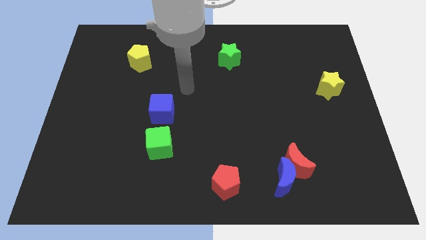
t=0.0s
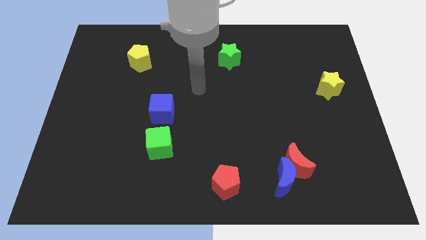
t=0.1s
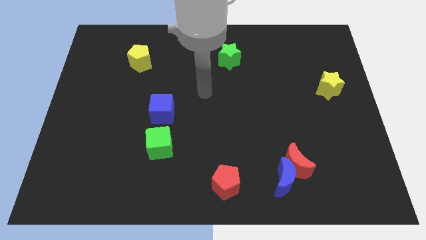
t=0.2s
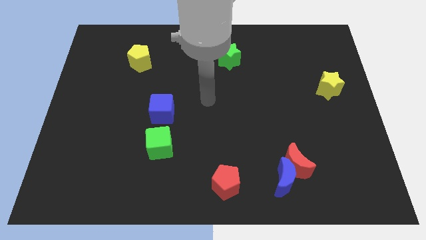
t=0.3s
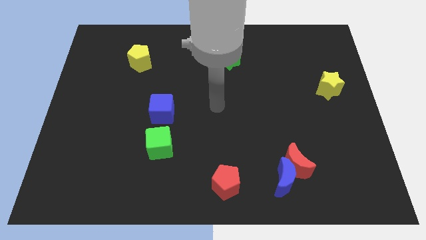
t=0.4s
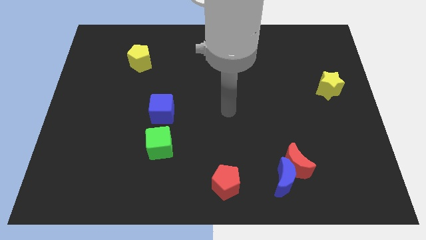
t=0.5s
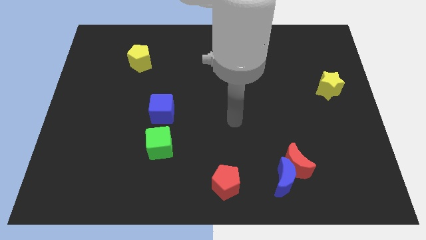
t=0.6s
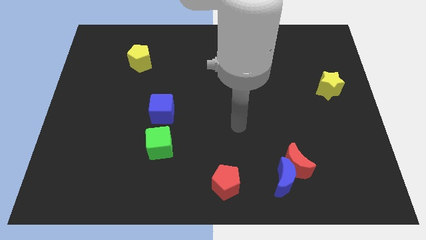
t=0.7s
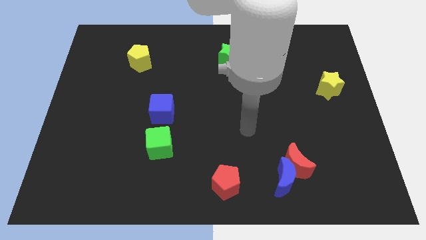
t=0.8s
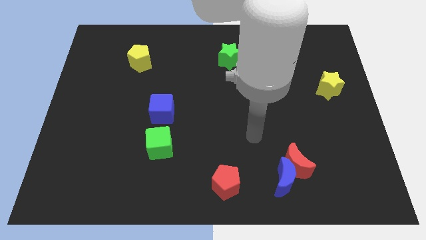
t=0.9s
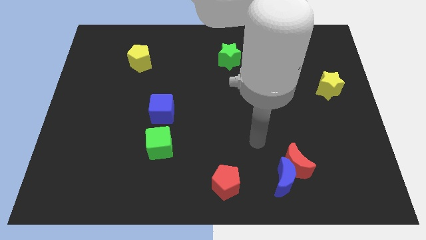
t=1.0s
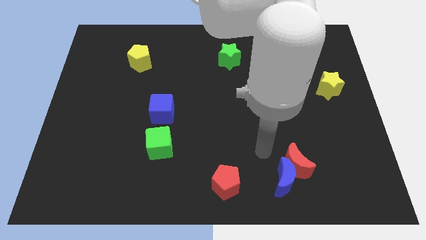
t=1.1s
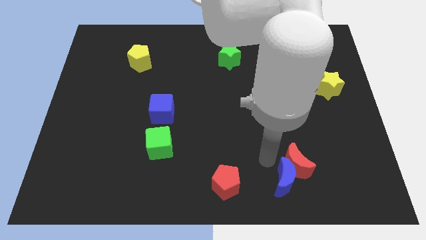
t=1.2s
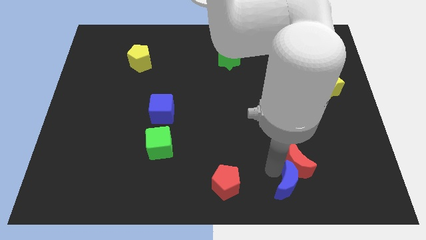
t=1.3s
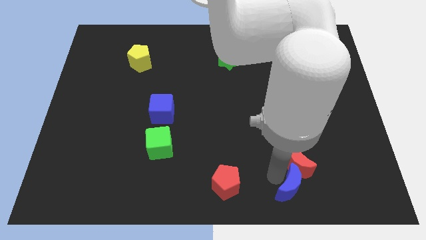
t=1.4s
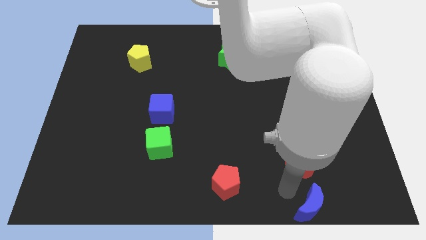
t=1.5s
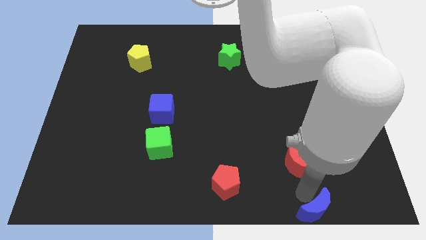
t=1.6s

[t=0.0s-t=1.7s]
pull the red moon apart from the blue moon

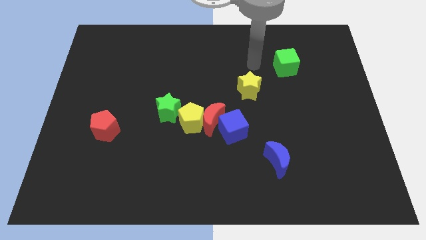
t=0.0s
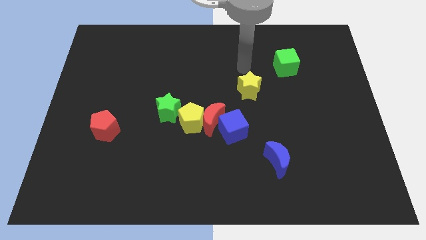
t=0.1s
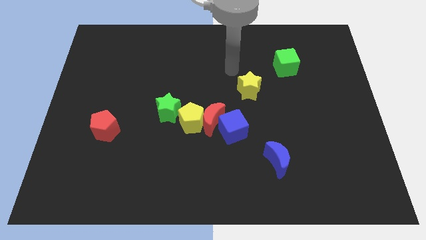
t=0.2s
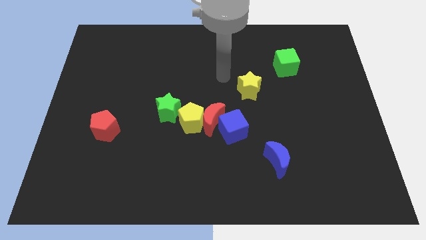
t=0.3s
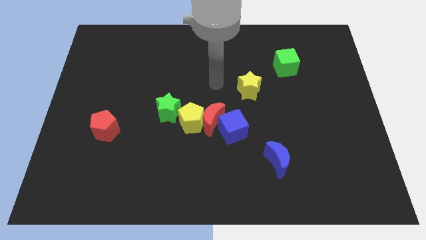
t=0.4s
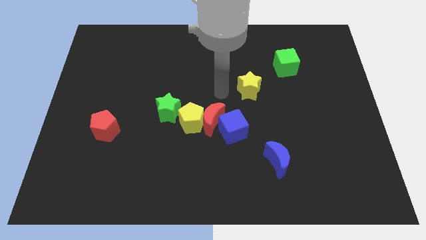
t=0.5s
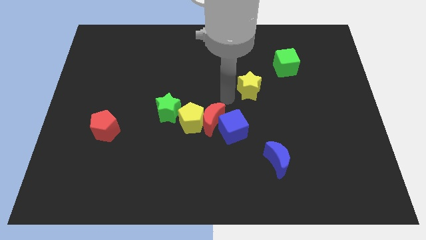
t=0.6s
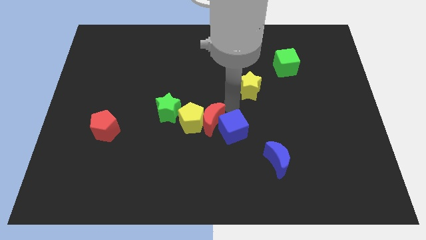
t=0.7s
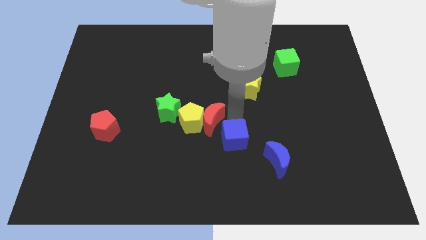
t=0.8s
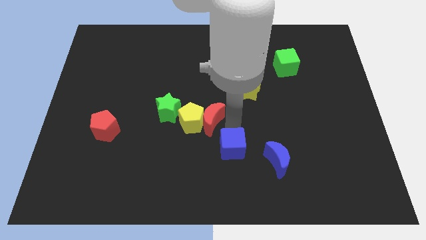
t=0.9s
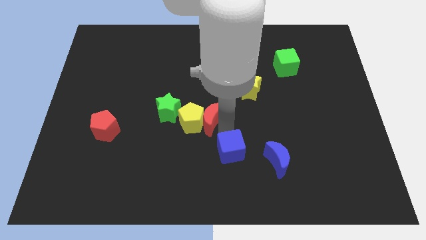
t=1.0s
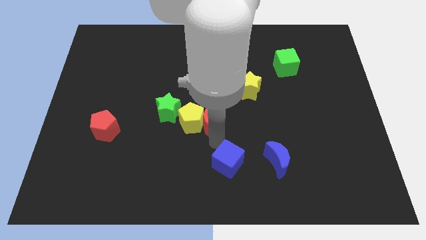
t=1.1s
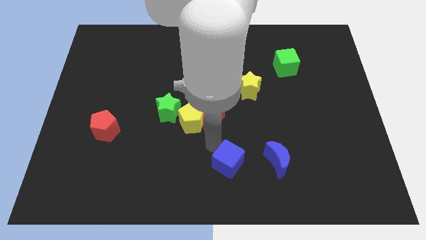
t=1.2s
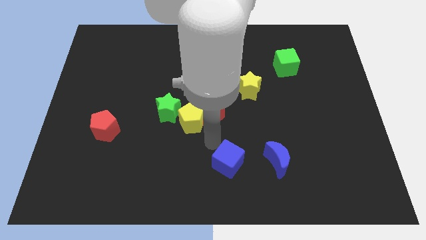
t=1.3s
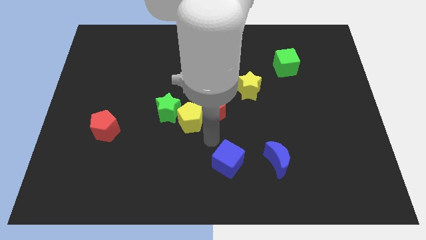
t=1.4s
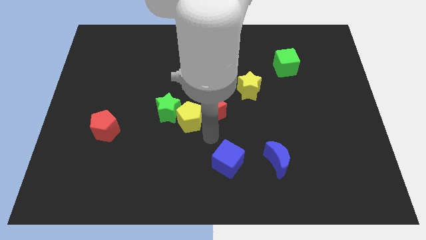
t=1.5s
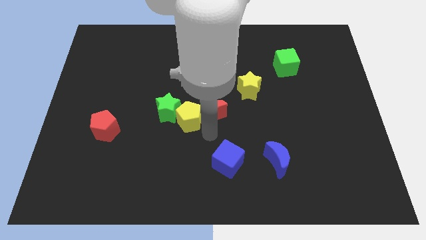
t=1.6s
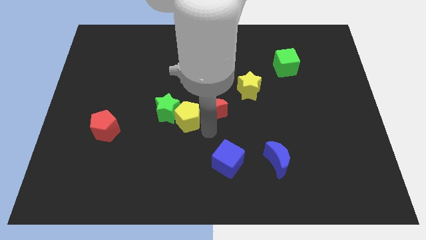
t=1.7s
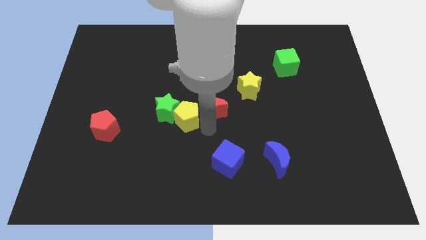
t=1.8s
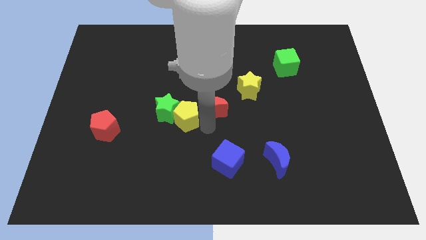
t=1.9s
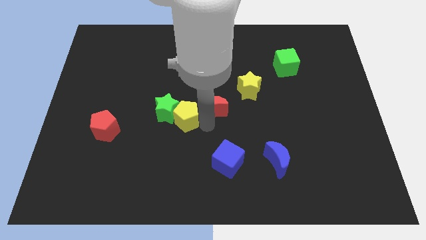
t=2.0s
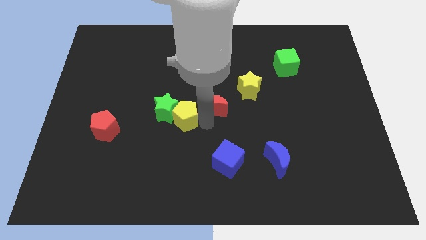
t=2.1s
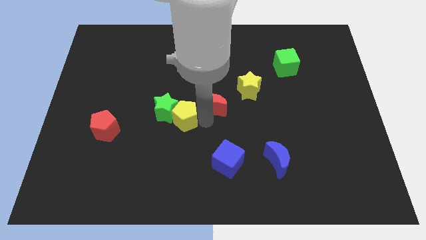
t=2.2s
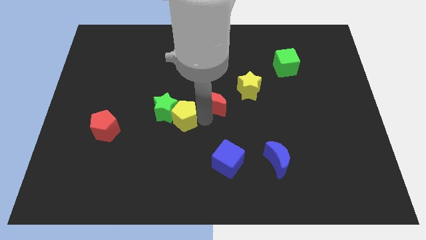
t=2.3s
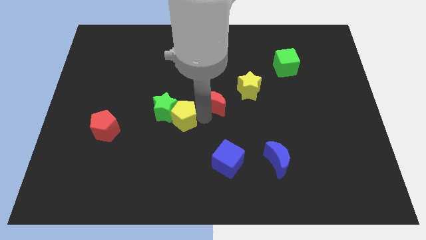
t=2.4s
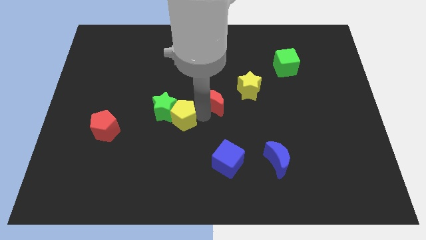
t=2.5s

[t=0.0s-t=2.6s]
separate the red moon from the yellow pentagon and blue cube

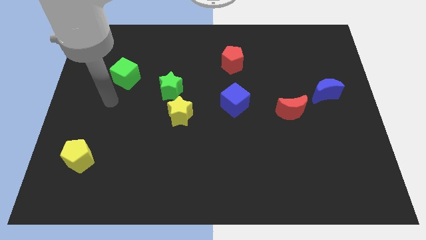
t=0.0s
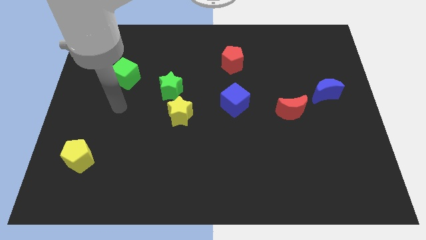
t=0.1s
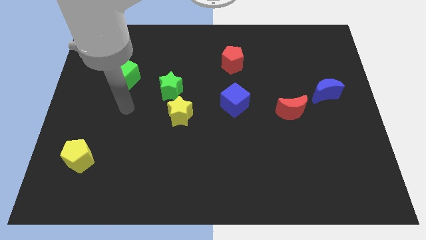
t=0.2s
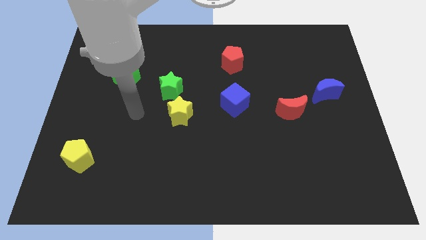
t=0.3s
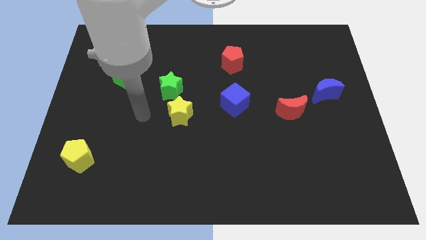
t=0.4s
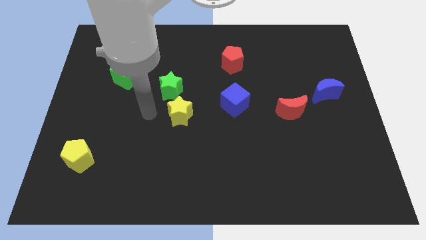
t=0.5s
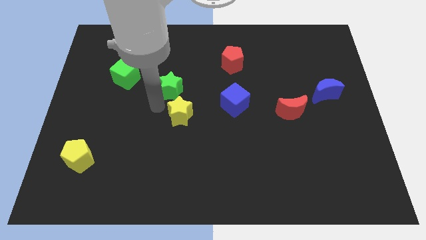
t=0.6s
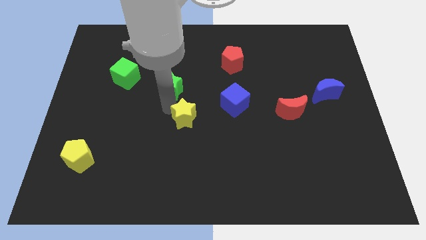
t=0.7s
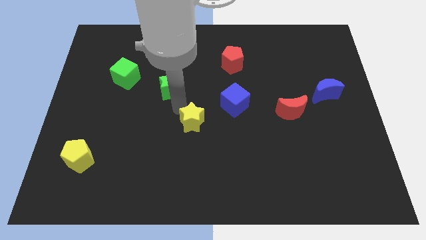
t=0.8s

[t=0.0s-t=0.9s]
pull the green star apart from the yellow star

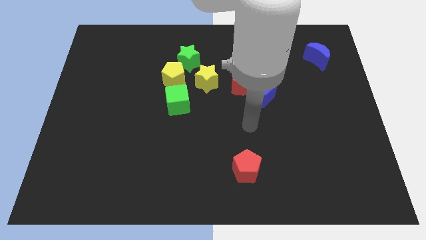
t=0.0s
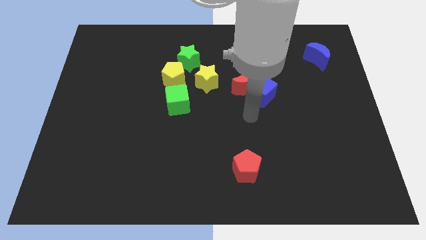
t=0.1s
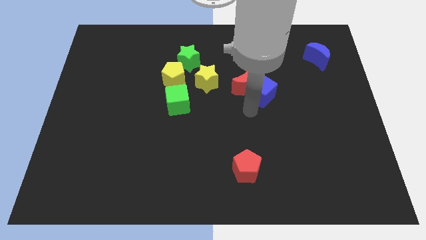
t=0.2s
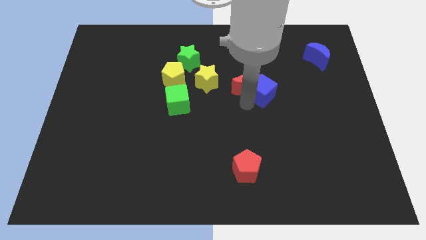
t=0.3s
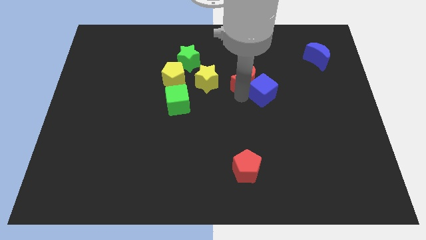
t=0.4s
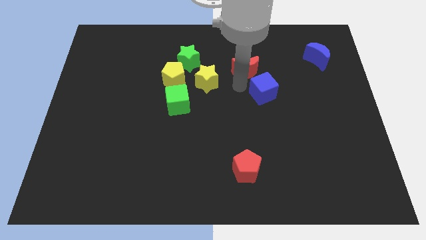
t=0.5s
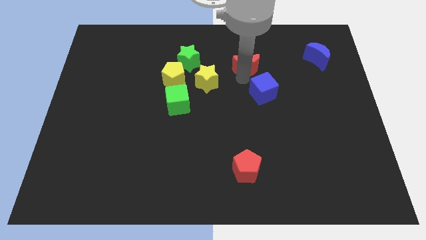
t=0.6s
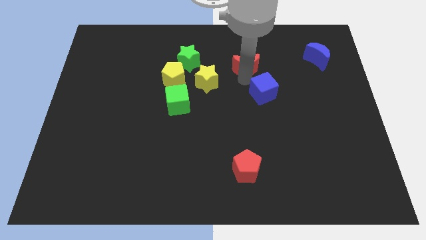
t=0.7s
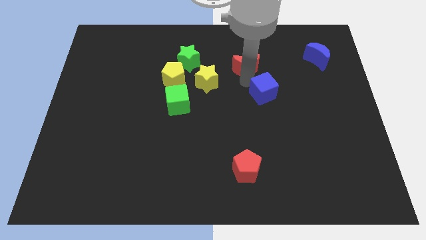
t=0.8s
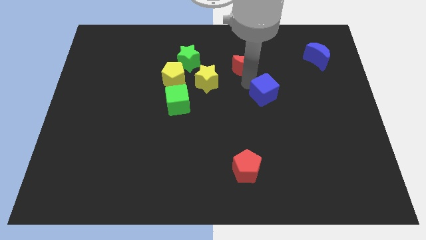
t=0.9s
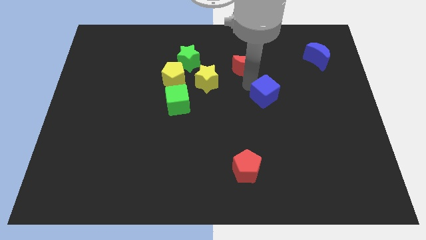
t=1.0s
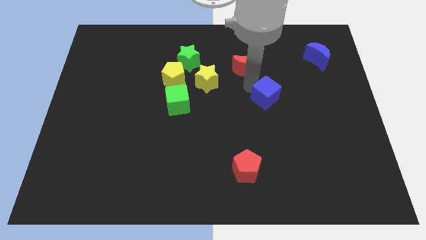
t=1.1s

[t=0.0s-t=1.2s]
move the blue cube away from the red moon

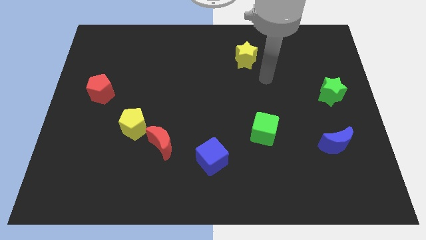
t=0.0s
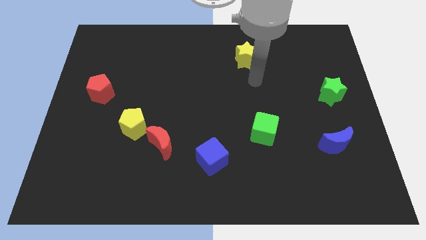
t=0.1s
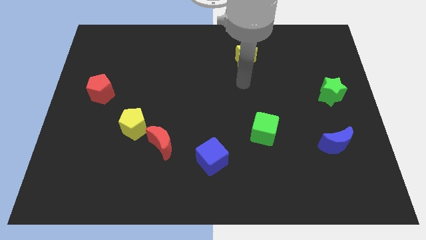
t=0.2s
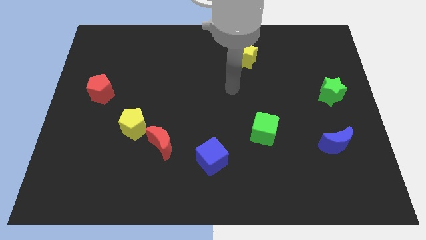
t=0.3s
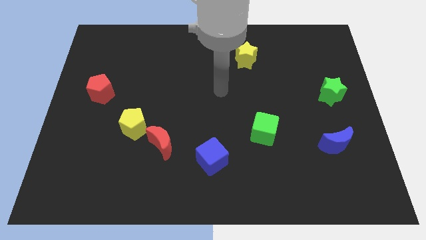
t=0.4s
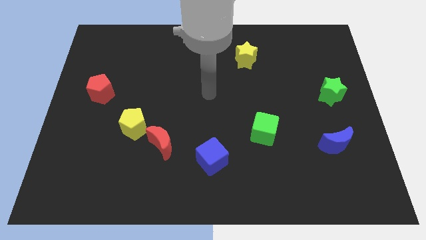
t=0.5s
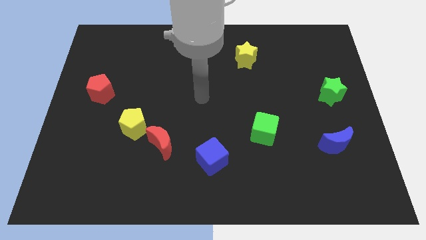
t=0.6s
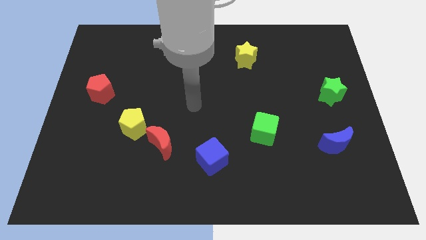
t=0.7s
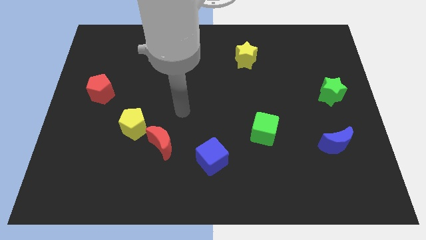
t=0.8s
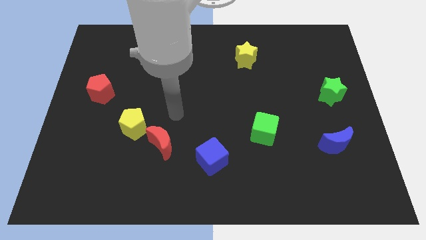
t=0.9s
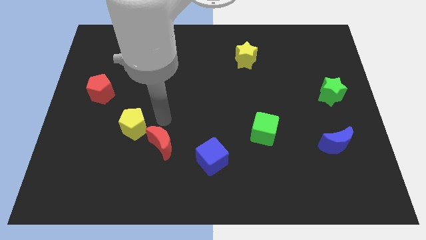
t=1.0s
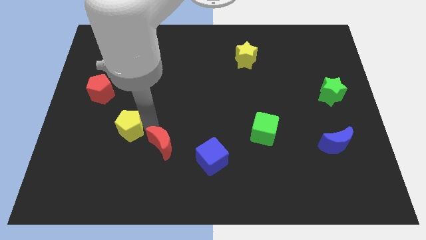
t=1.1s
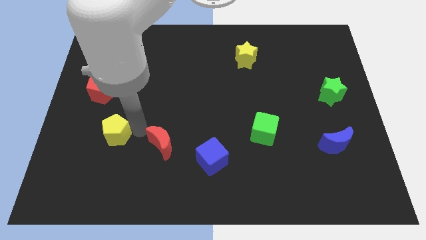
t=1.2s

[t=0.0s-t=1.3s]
move the red moon away from the yellow pentagon

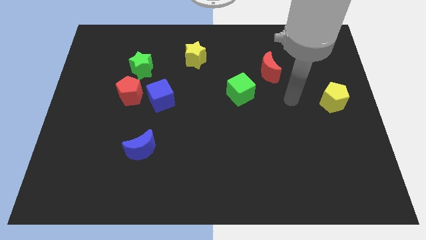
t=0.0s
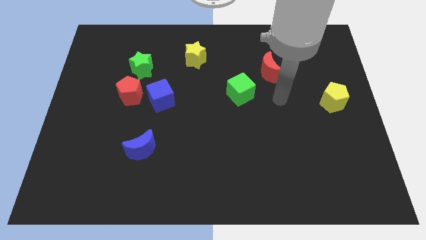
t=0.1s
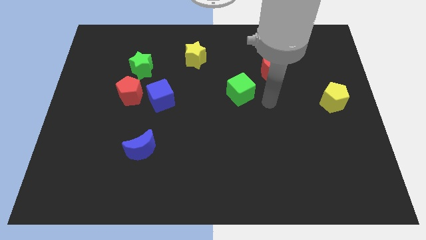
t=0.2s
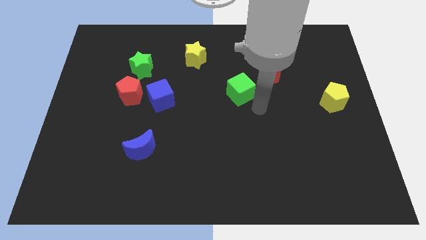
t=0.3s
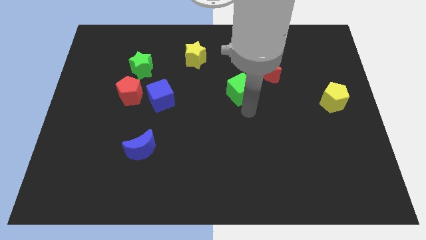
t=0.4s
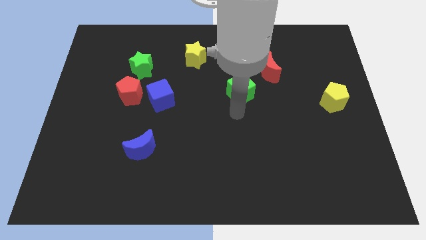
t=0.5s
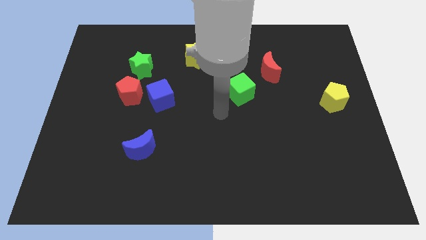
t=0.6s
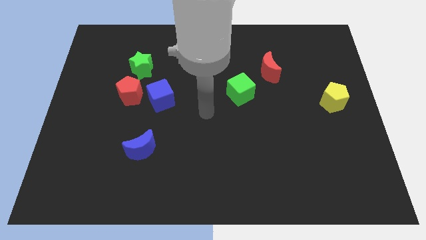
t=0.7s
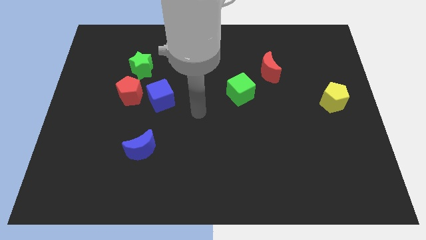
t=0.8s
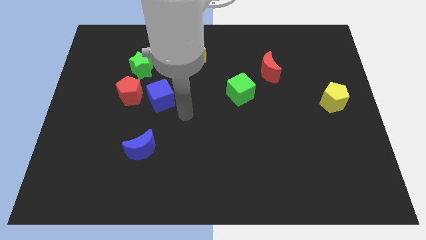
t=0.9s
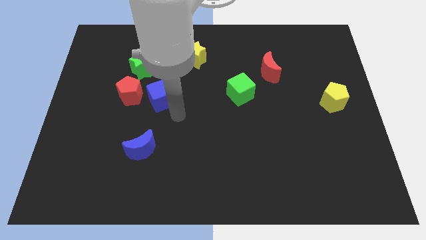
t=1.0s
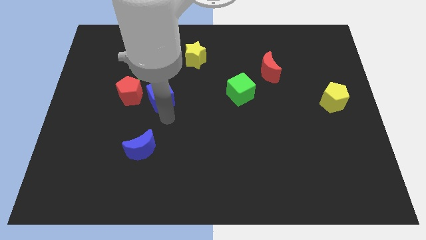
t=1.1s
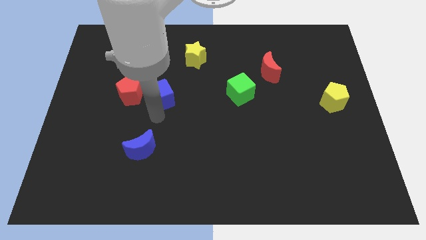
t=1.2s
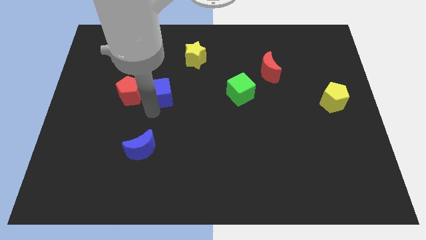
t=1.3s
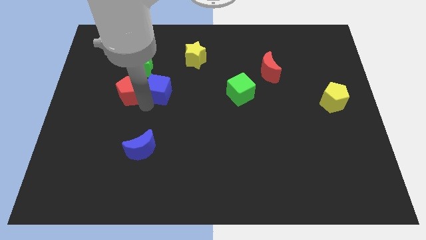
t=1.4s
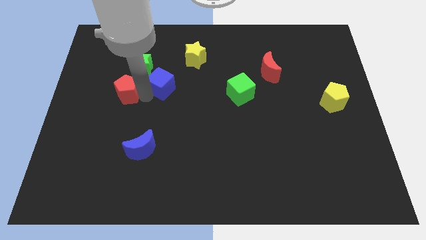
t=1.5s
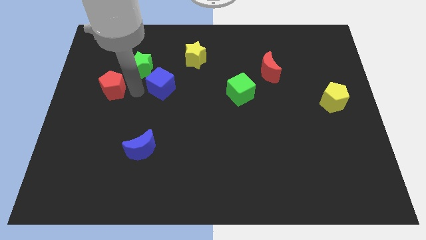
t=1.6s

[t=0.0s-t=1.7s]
separate the blue cube from the red pentagon
